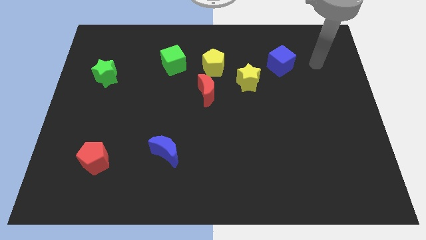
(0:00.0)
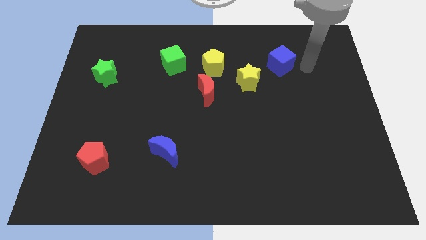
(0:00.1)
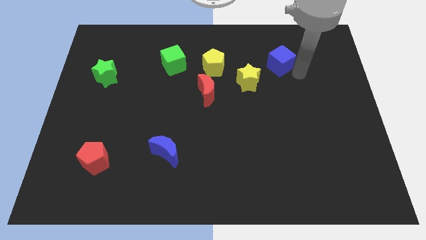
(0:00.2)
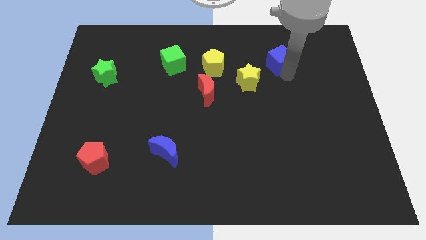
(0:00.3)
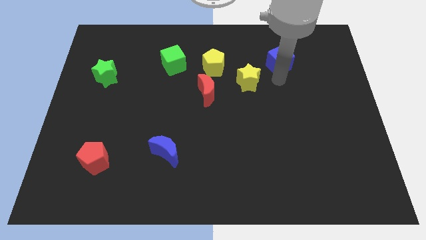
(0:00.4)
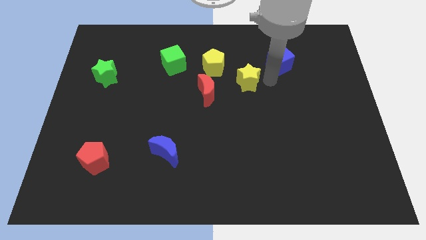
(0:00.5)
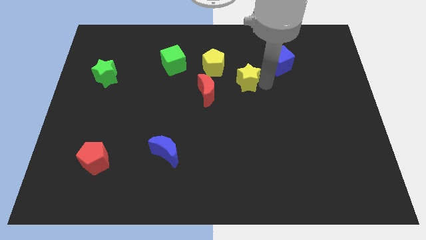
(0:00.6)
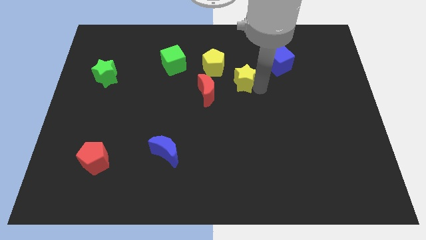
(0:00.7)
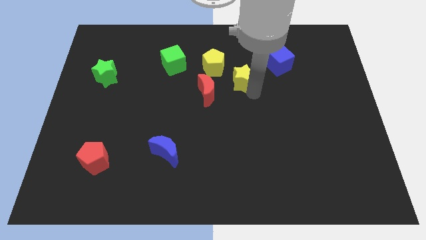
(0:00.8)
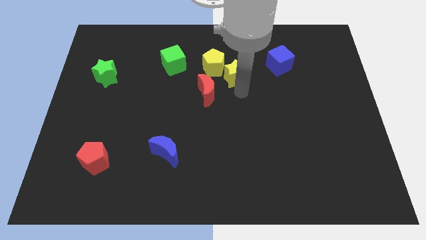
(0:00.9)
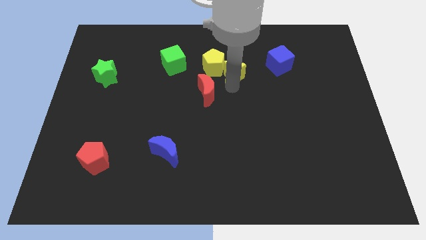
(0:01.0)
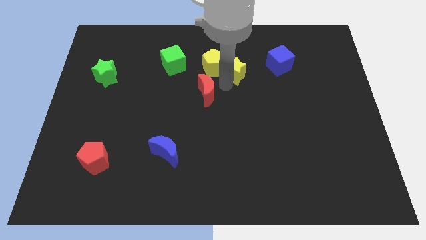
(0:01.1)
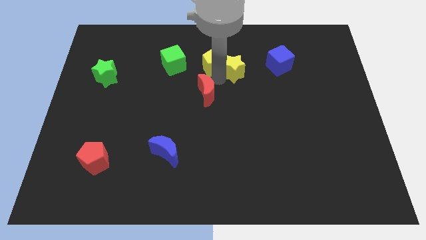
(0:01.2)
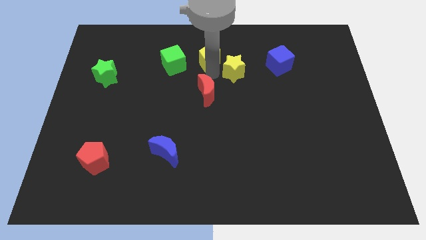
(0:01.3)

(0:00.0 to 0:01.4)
pull the red moon apart from the yellow pentagon

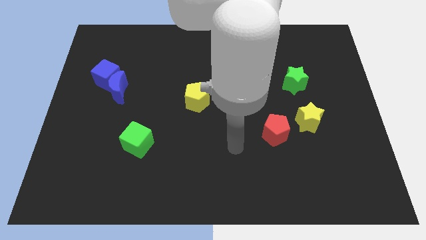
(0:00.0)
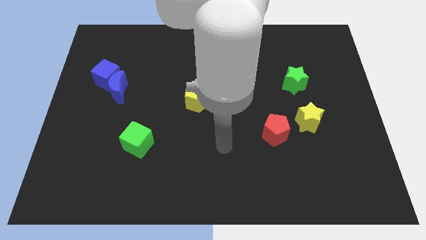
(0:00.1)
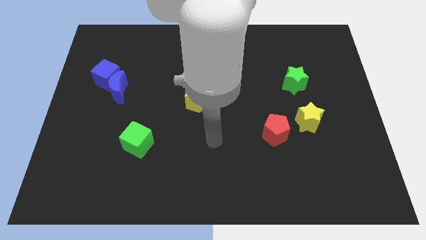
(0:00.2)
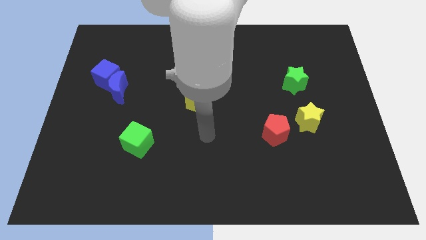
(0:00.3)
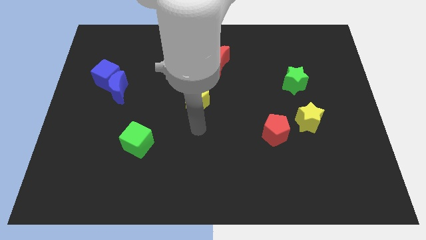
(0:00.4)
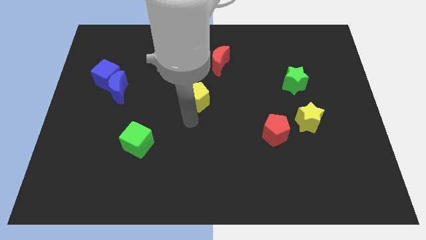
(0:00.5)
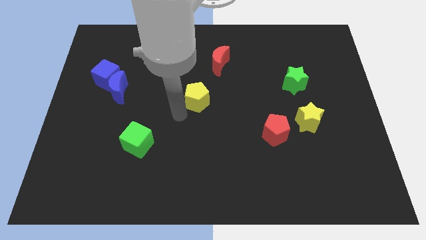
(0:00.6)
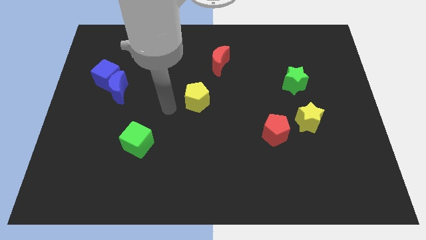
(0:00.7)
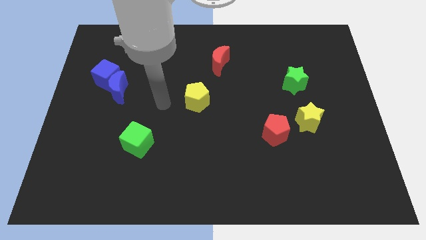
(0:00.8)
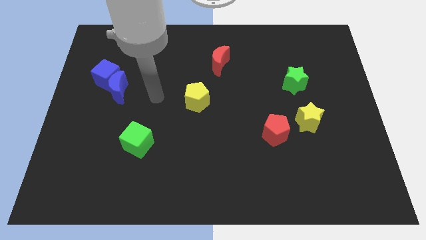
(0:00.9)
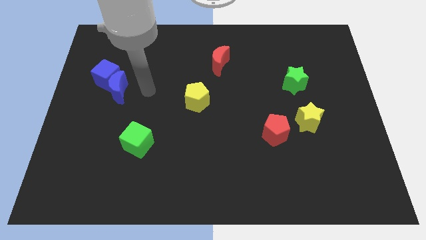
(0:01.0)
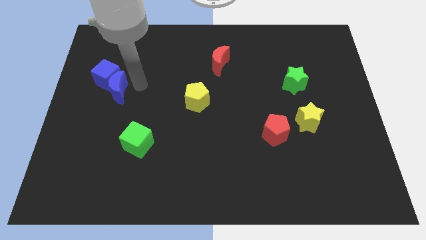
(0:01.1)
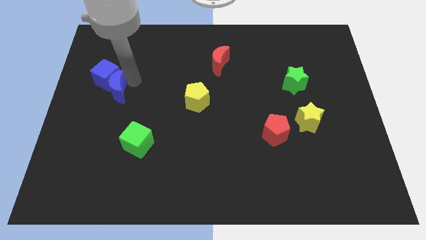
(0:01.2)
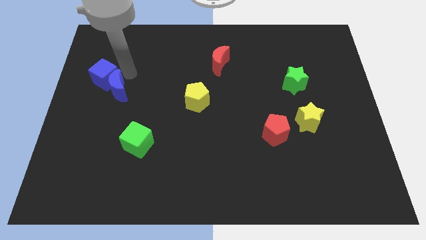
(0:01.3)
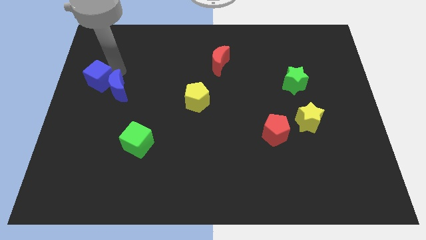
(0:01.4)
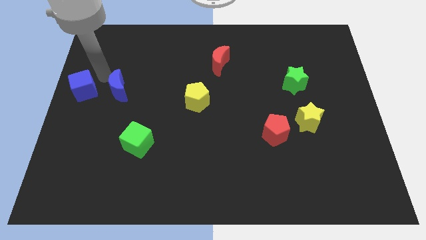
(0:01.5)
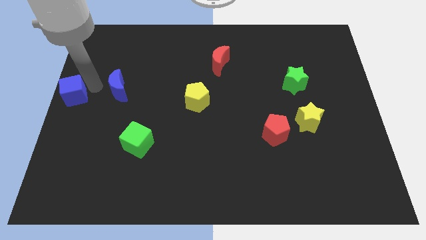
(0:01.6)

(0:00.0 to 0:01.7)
move the blue moon away from the blue cube

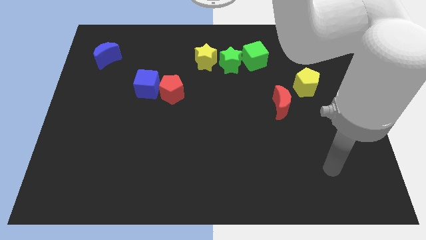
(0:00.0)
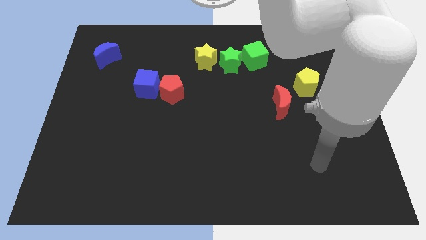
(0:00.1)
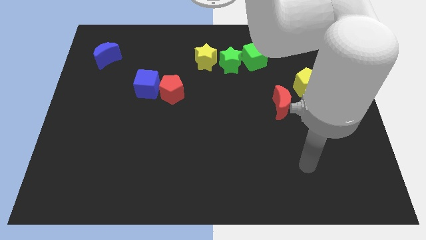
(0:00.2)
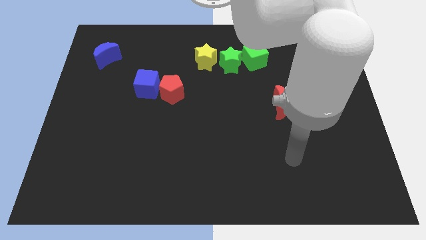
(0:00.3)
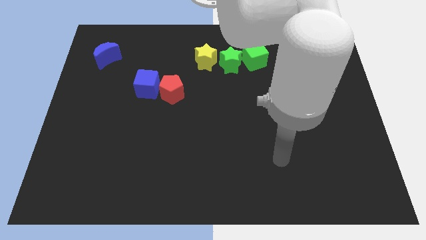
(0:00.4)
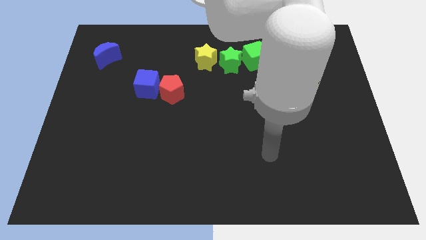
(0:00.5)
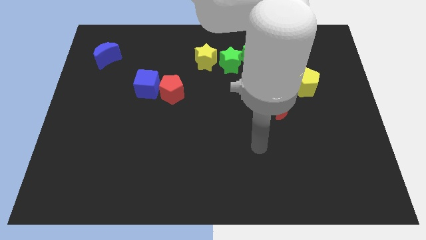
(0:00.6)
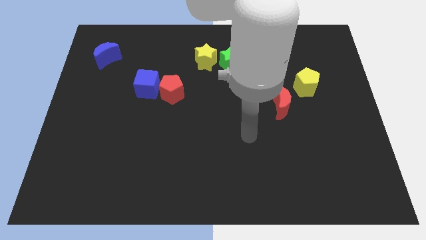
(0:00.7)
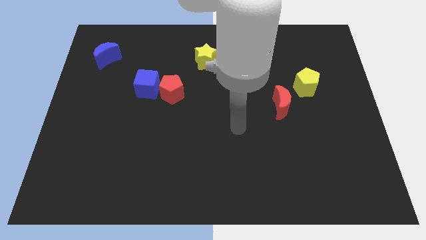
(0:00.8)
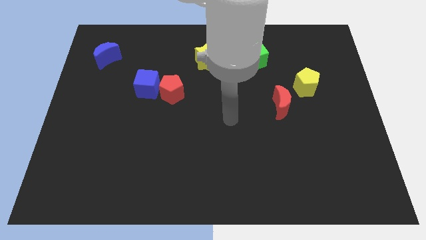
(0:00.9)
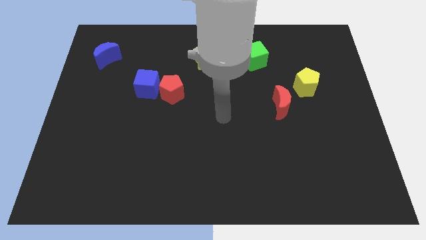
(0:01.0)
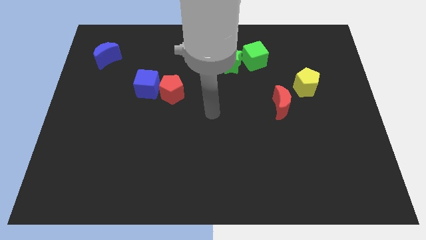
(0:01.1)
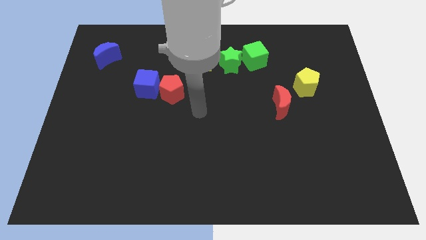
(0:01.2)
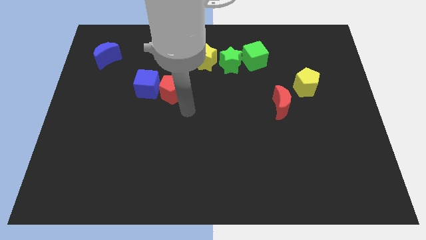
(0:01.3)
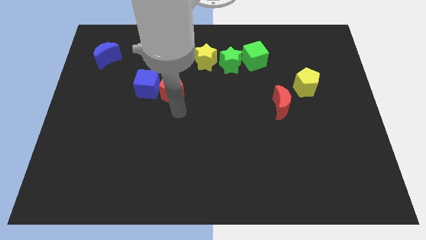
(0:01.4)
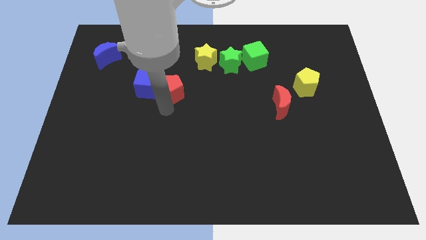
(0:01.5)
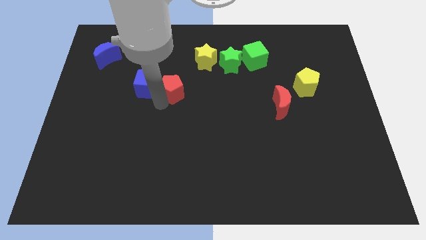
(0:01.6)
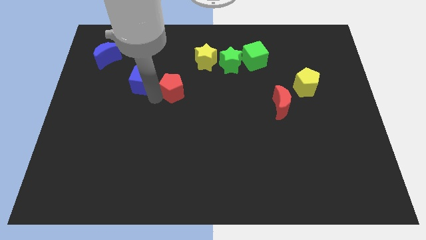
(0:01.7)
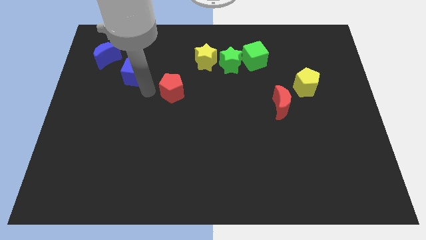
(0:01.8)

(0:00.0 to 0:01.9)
move the red pentagon away from the blue cube

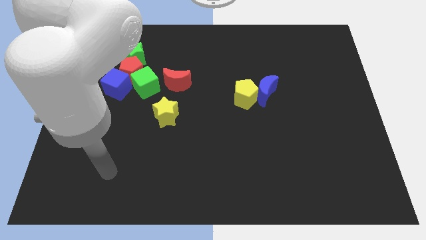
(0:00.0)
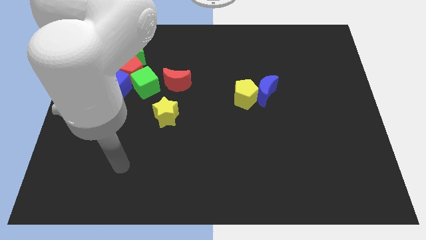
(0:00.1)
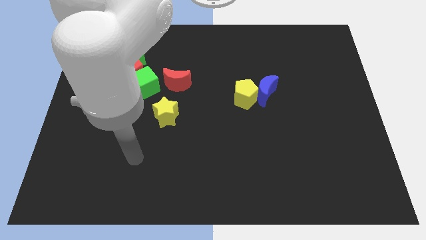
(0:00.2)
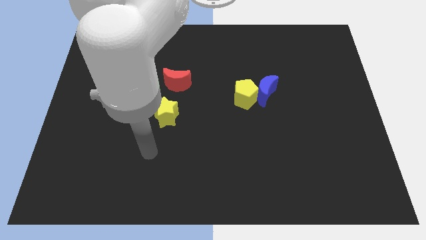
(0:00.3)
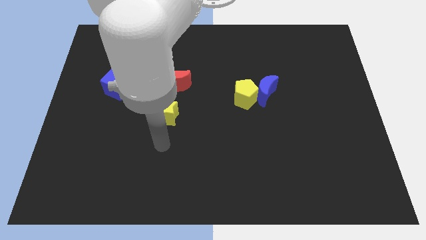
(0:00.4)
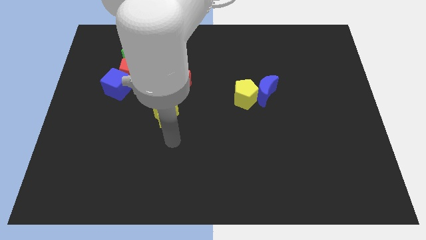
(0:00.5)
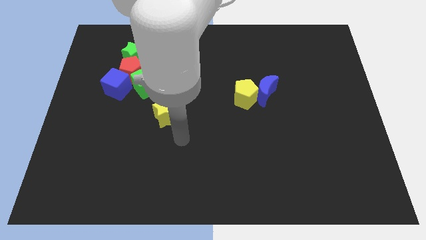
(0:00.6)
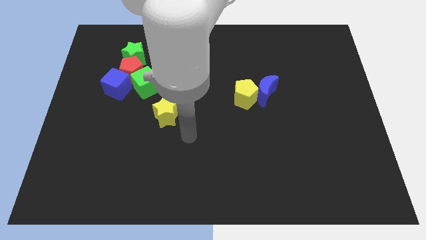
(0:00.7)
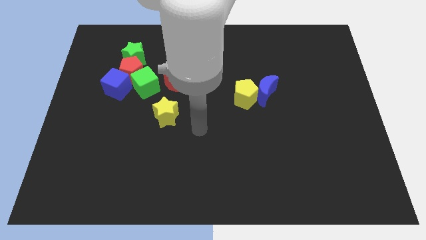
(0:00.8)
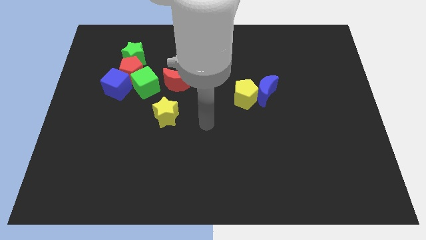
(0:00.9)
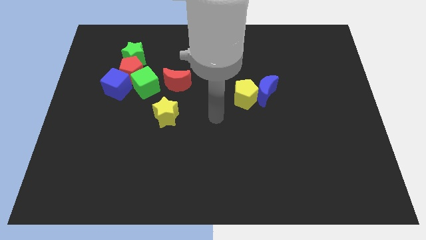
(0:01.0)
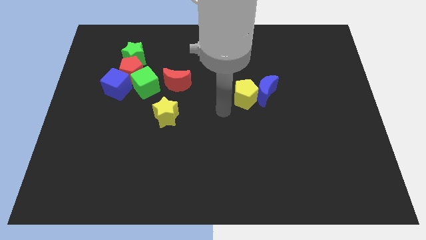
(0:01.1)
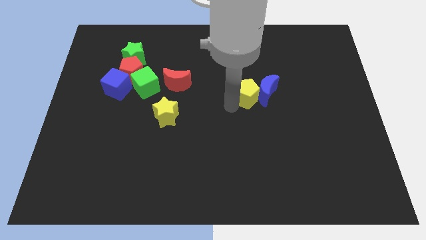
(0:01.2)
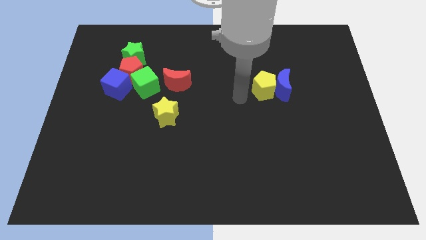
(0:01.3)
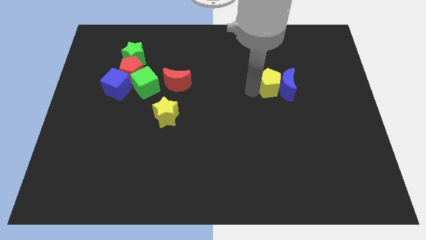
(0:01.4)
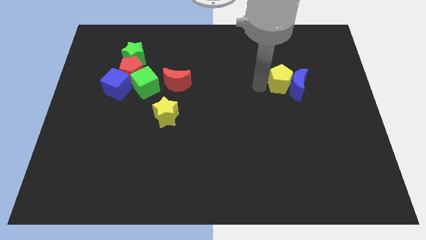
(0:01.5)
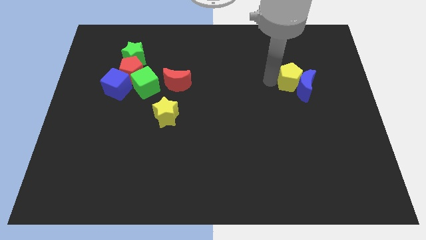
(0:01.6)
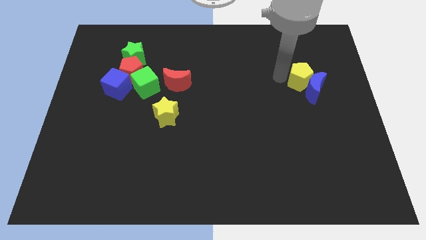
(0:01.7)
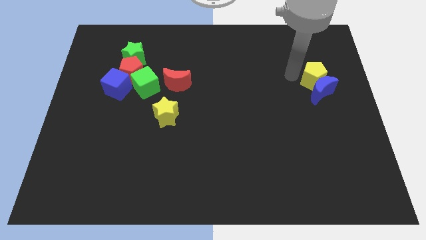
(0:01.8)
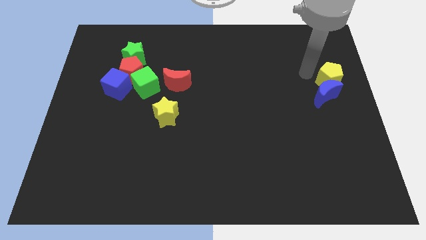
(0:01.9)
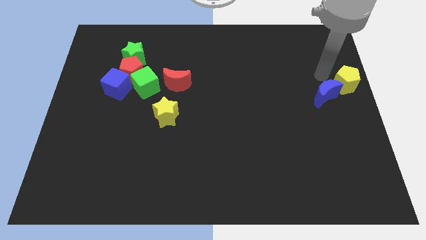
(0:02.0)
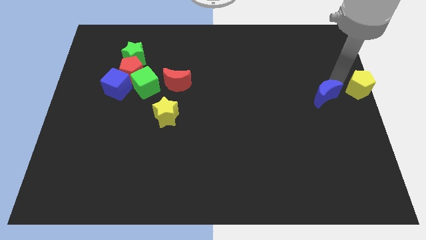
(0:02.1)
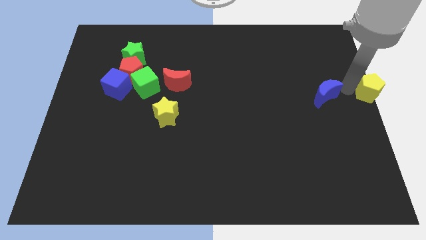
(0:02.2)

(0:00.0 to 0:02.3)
move the blue moon away from the yellow pentagon

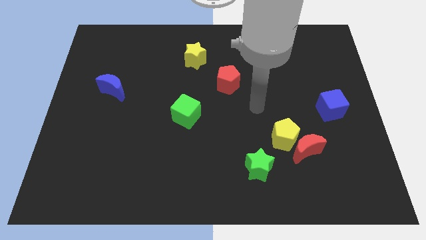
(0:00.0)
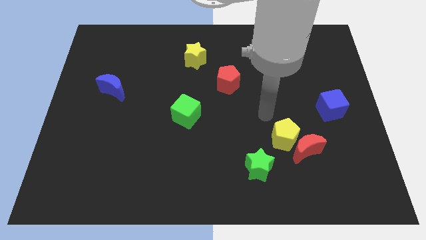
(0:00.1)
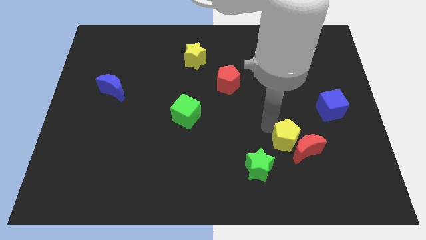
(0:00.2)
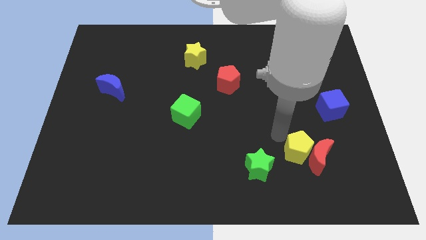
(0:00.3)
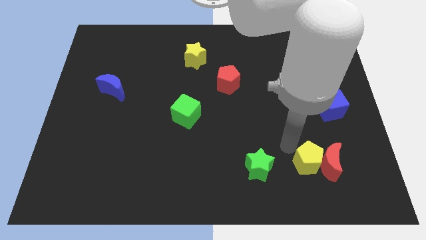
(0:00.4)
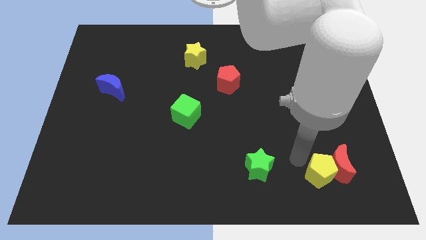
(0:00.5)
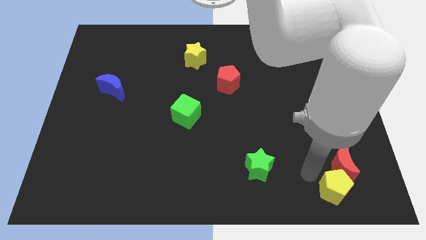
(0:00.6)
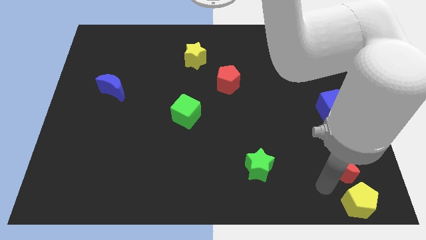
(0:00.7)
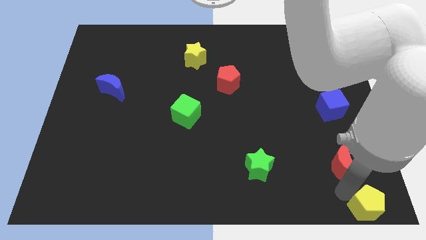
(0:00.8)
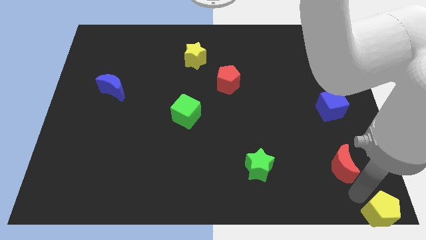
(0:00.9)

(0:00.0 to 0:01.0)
move the red moon away from the yellow pentagon

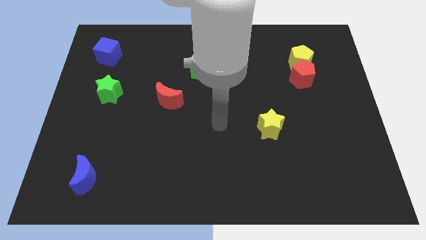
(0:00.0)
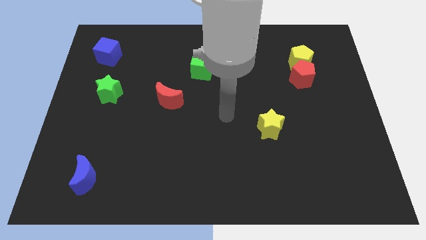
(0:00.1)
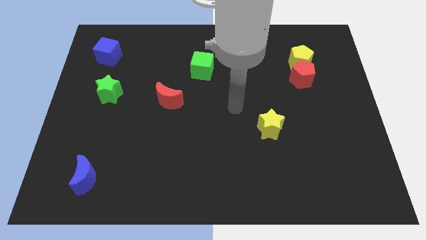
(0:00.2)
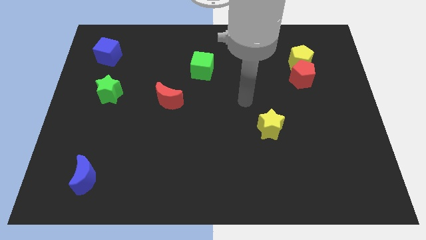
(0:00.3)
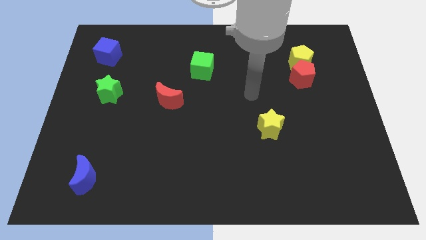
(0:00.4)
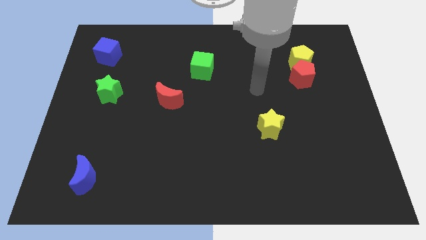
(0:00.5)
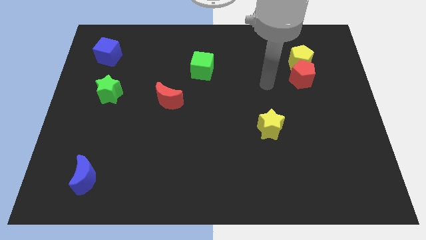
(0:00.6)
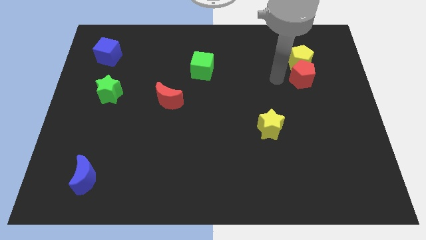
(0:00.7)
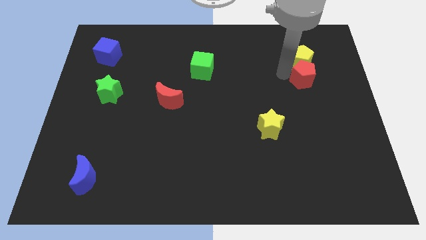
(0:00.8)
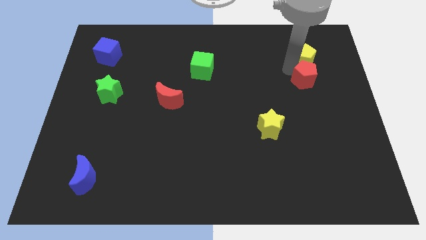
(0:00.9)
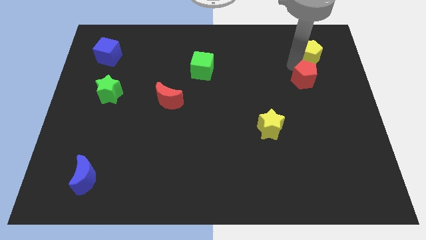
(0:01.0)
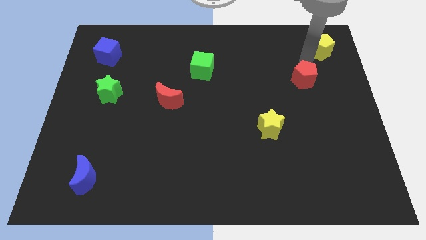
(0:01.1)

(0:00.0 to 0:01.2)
separate the red pentagon from the yellow pentagon
